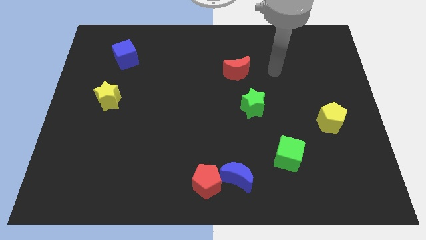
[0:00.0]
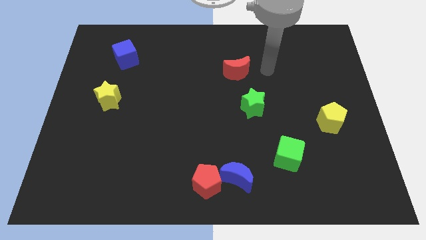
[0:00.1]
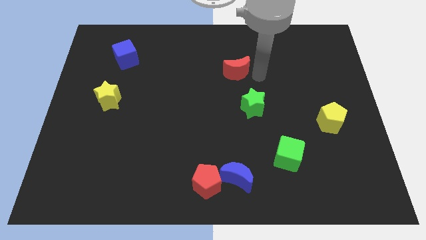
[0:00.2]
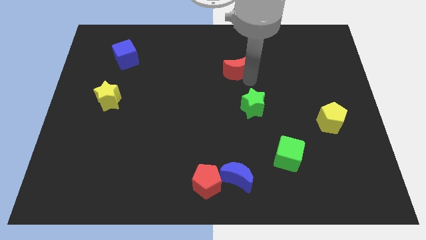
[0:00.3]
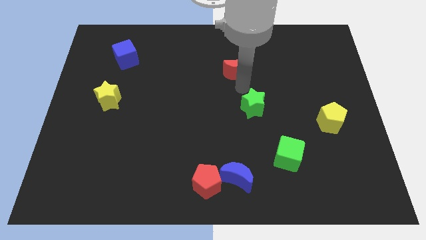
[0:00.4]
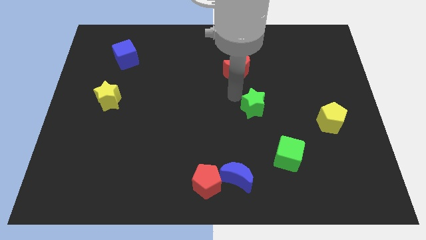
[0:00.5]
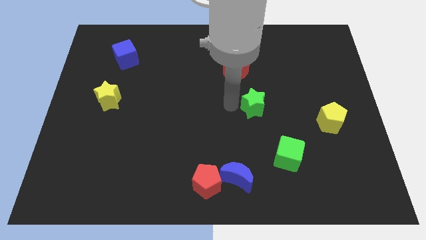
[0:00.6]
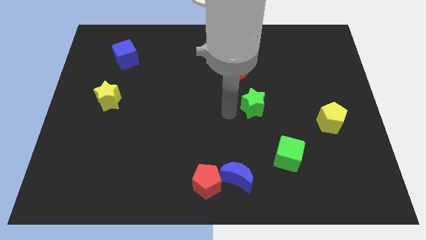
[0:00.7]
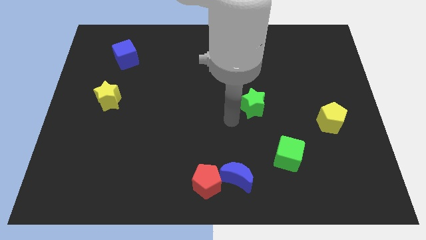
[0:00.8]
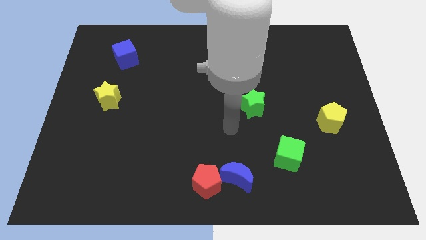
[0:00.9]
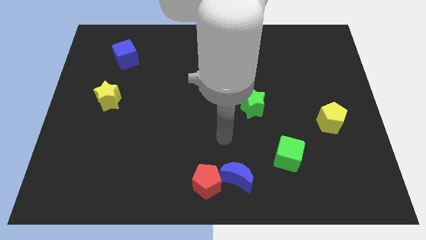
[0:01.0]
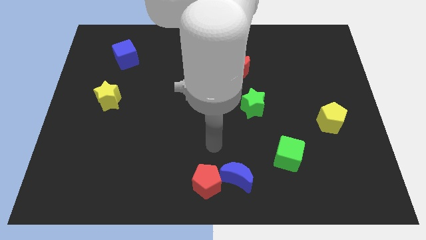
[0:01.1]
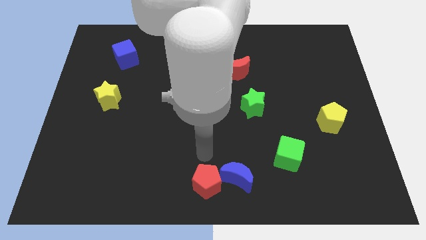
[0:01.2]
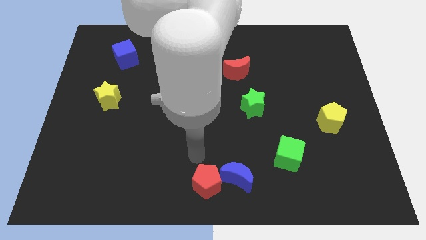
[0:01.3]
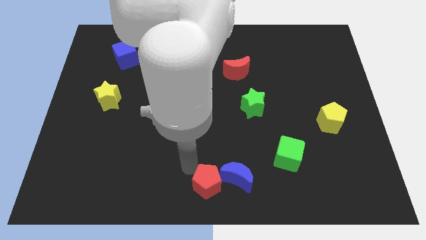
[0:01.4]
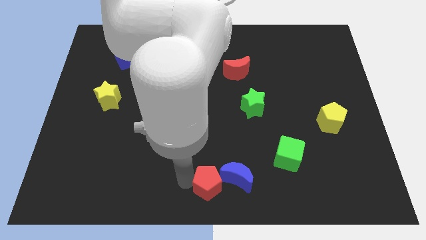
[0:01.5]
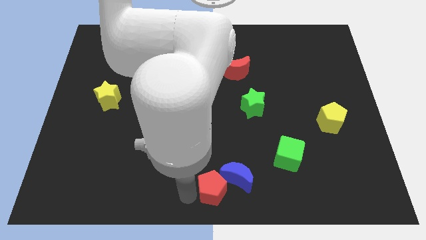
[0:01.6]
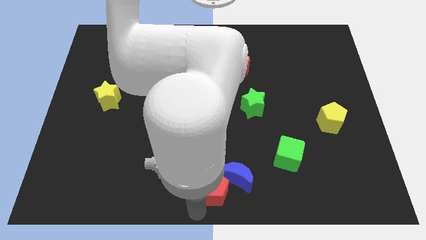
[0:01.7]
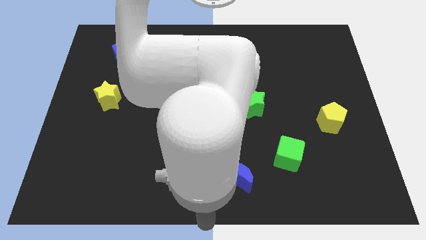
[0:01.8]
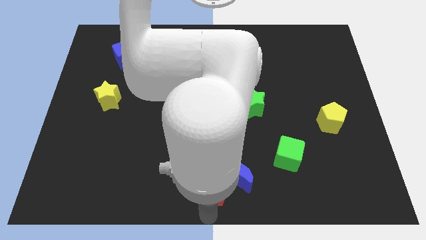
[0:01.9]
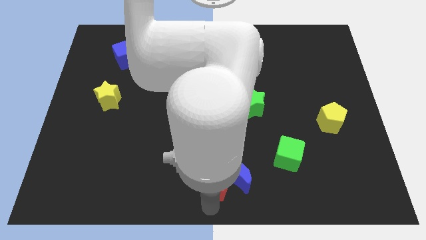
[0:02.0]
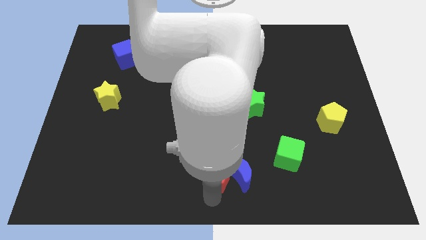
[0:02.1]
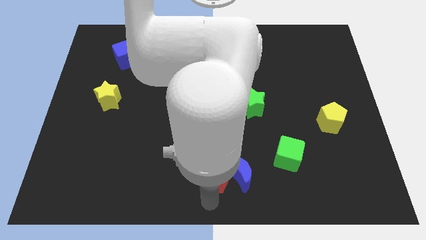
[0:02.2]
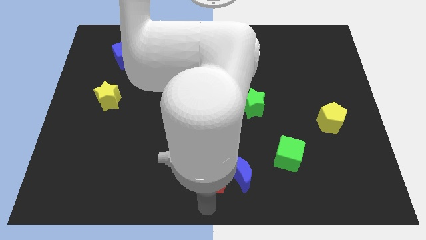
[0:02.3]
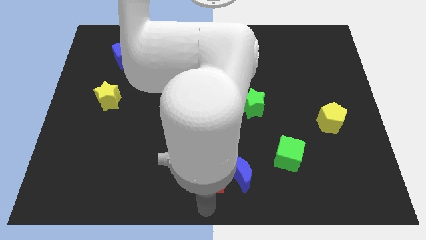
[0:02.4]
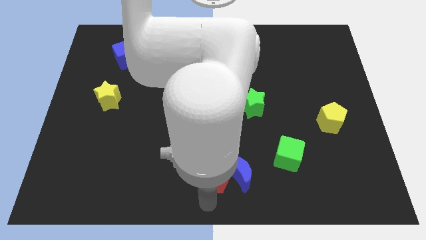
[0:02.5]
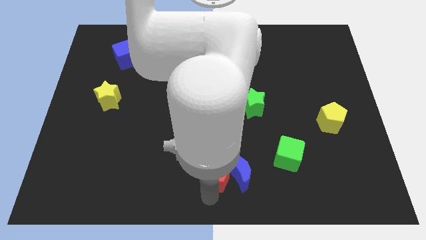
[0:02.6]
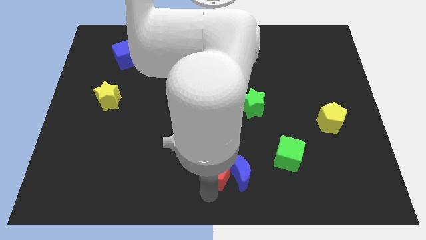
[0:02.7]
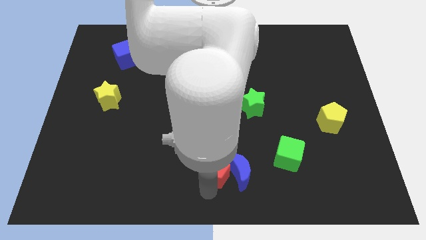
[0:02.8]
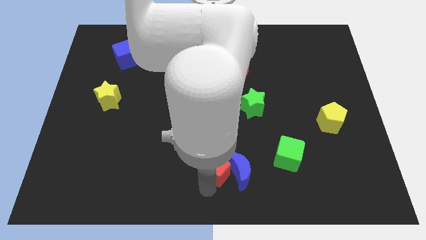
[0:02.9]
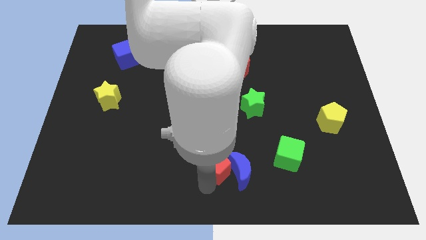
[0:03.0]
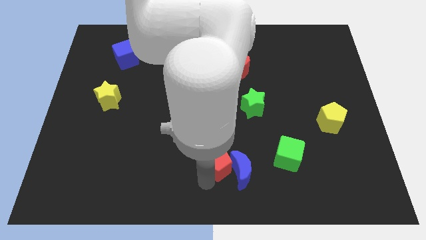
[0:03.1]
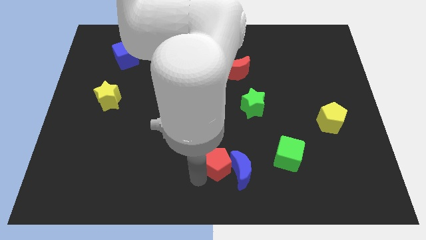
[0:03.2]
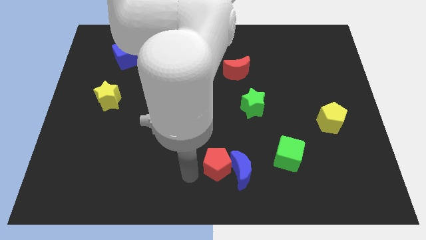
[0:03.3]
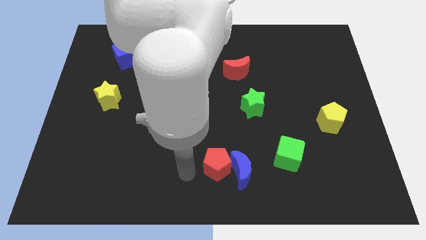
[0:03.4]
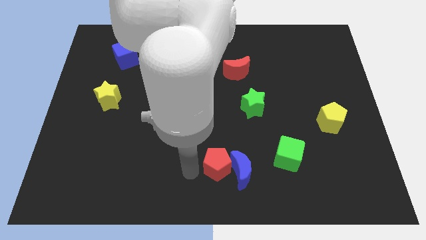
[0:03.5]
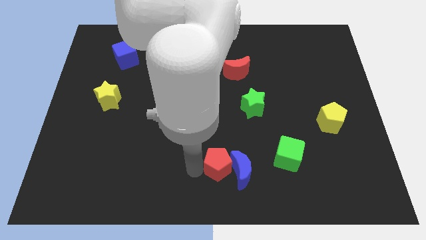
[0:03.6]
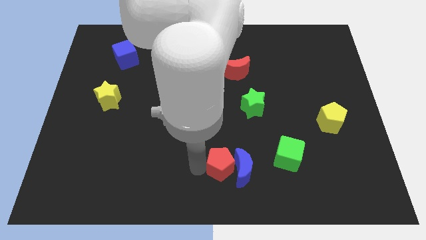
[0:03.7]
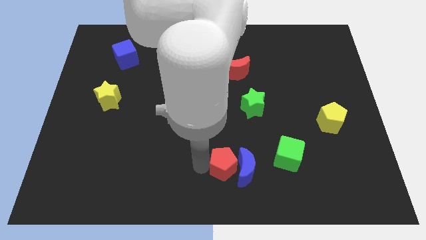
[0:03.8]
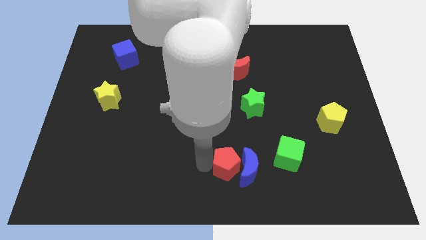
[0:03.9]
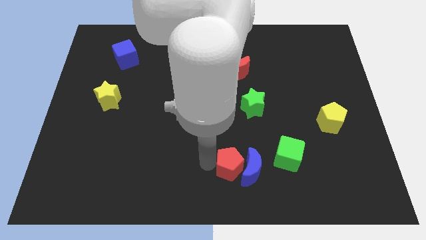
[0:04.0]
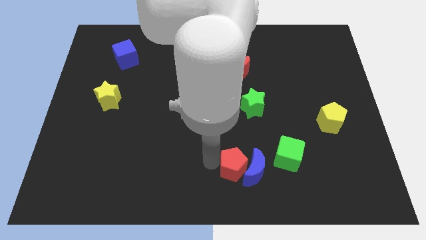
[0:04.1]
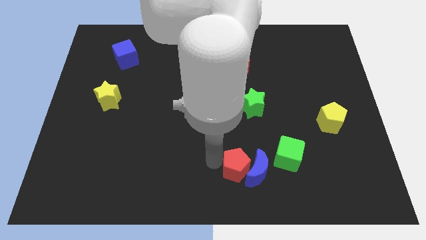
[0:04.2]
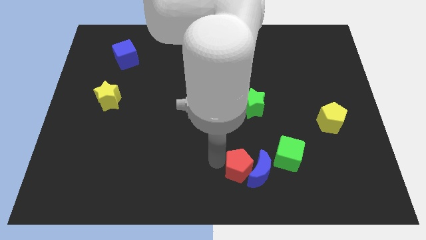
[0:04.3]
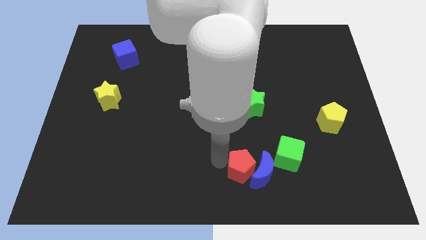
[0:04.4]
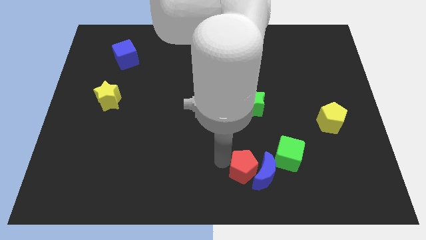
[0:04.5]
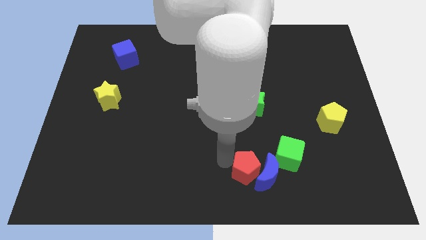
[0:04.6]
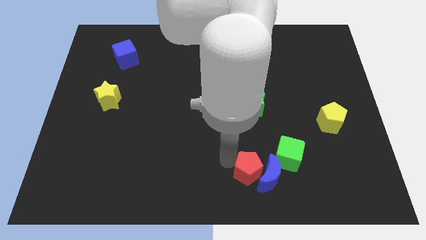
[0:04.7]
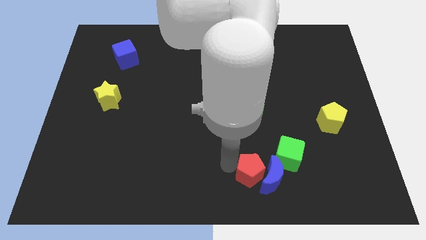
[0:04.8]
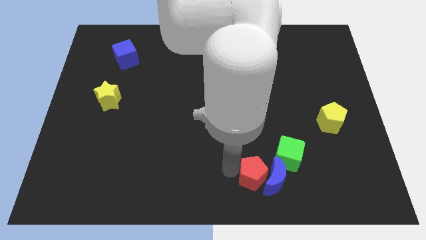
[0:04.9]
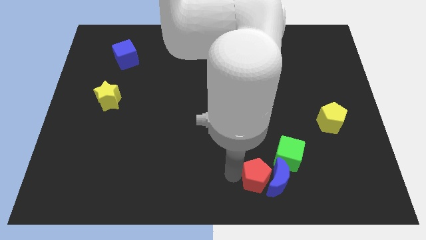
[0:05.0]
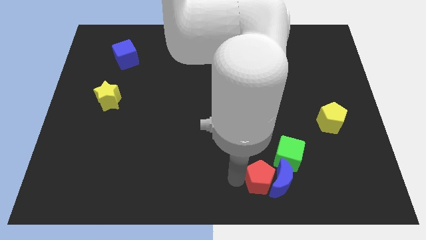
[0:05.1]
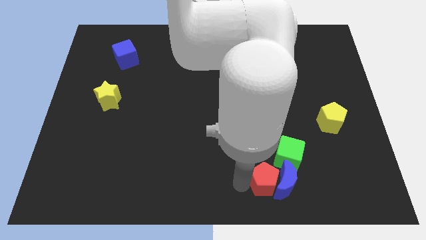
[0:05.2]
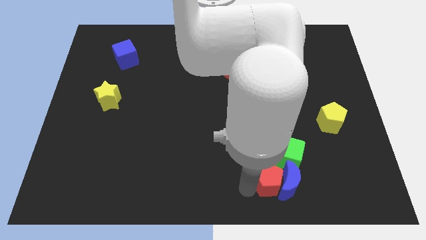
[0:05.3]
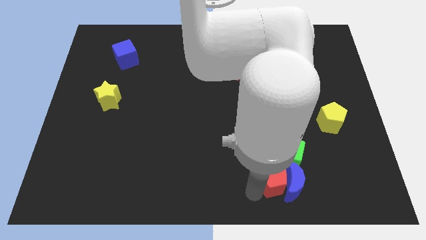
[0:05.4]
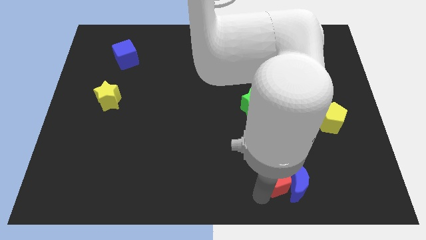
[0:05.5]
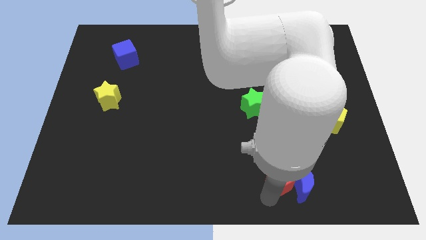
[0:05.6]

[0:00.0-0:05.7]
put the red pentagon next to the green cube

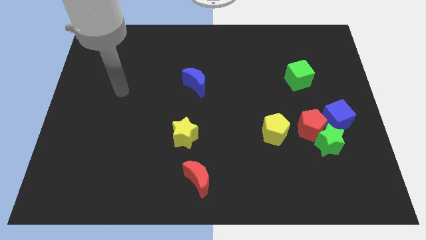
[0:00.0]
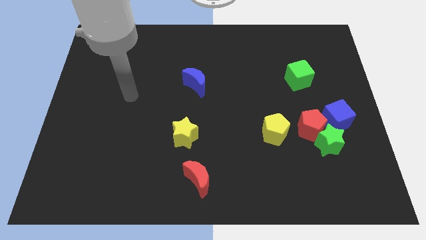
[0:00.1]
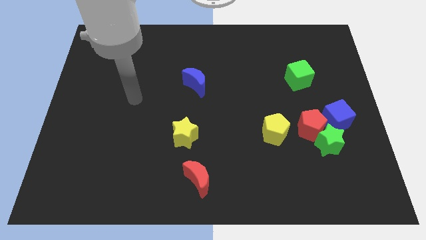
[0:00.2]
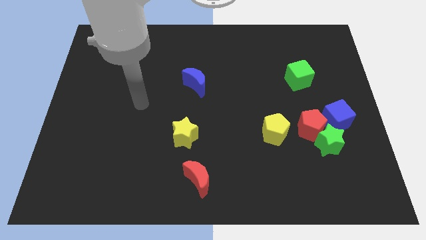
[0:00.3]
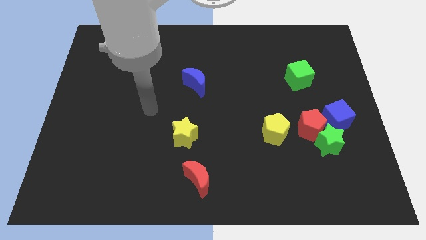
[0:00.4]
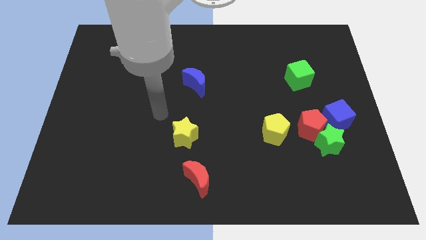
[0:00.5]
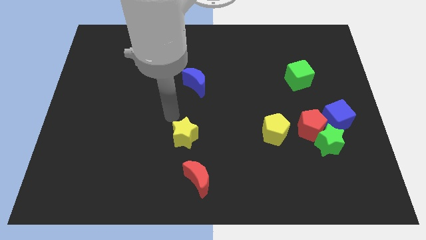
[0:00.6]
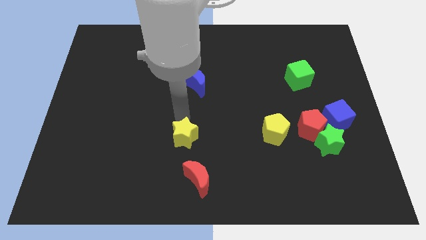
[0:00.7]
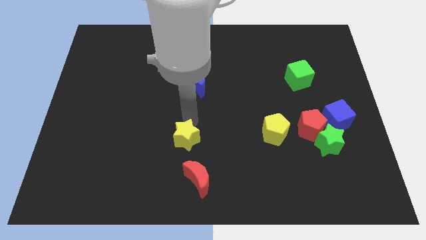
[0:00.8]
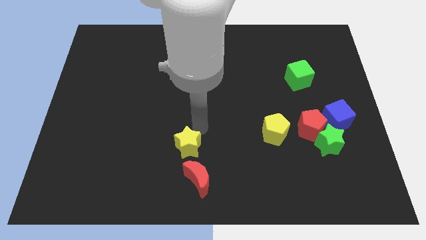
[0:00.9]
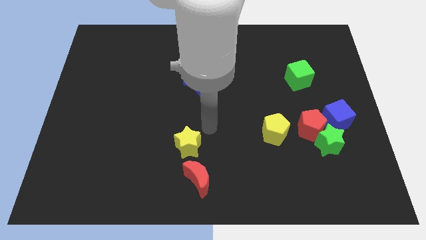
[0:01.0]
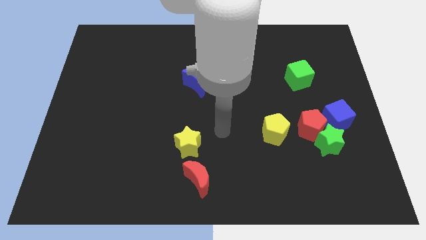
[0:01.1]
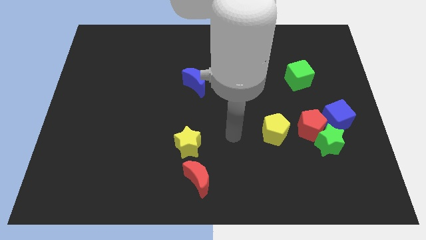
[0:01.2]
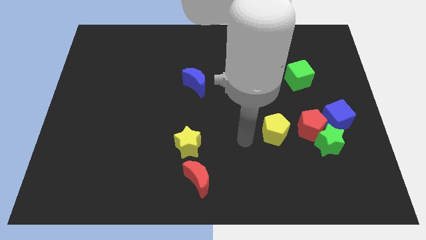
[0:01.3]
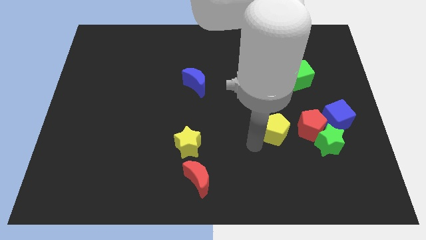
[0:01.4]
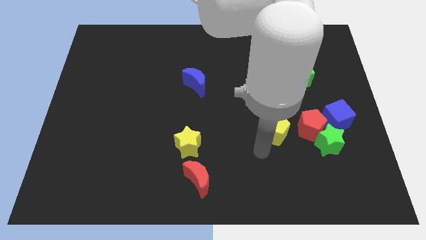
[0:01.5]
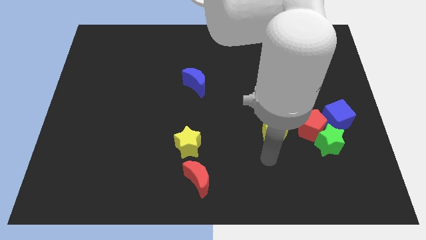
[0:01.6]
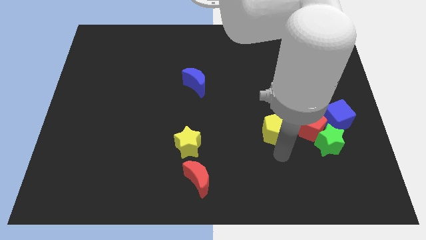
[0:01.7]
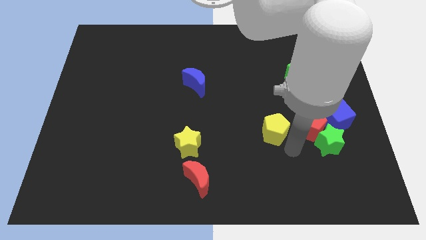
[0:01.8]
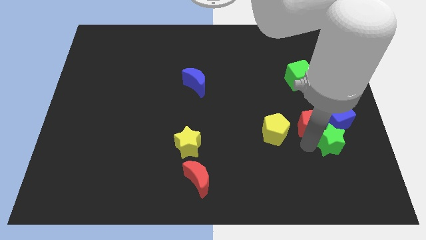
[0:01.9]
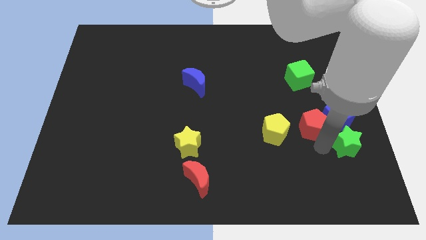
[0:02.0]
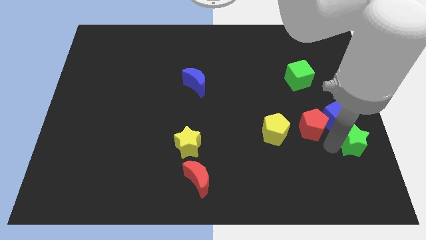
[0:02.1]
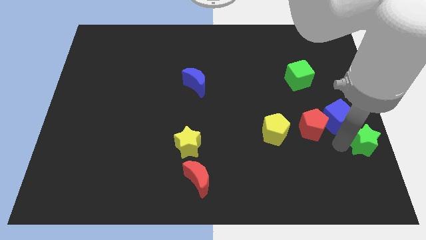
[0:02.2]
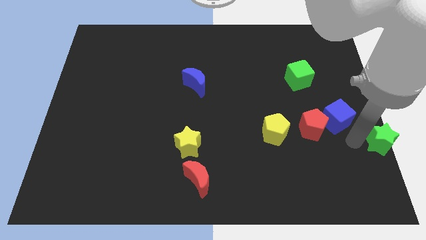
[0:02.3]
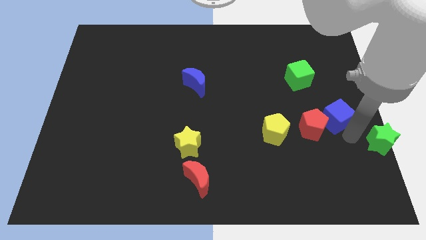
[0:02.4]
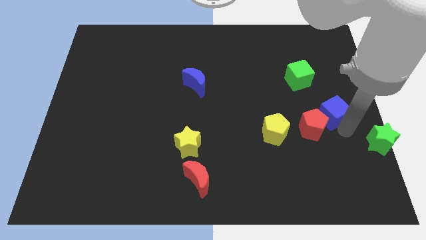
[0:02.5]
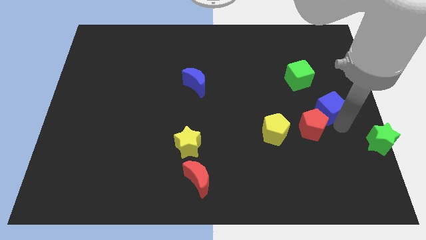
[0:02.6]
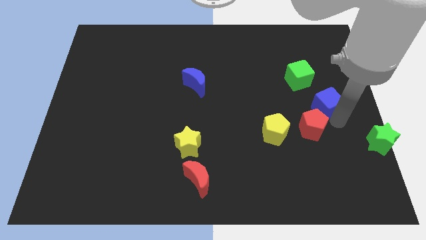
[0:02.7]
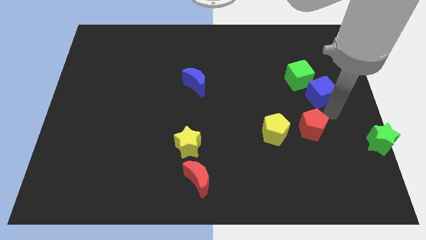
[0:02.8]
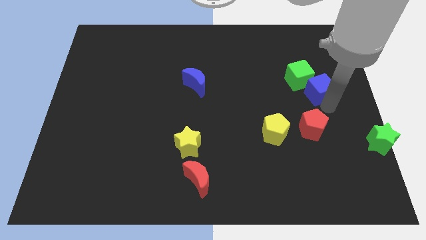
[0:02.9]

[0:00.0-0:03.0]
push the blue cube towards the green cube
